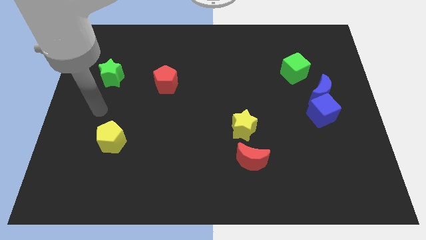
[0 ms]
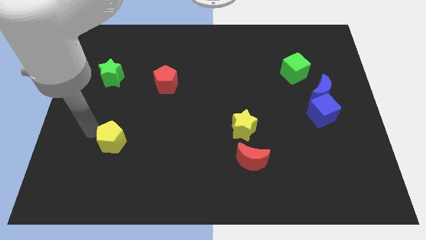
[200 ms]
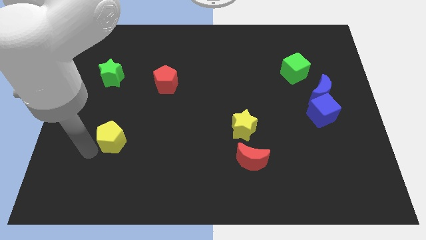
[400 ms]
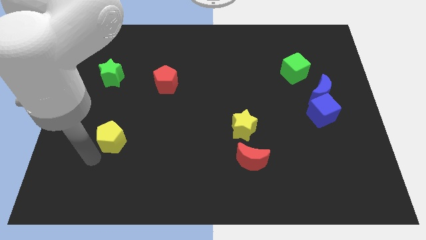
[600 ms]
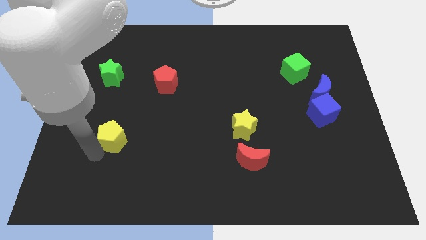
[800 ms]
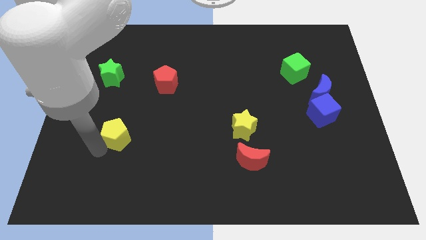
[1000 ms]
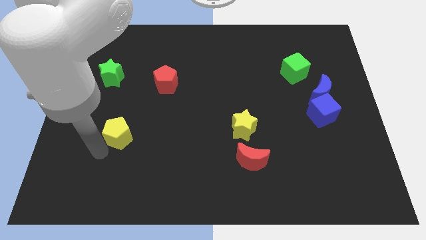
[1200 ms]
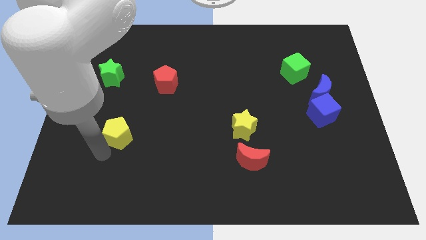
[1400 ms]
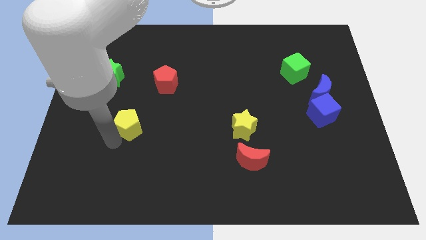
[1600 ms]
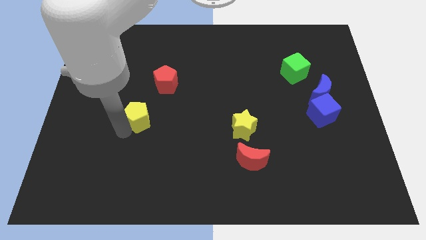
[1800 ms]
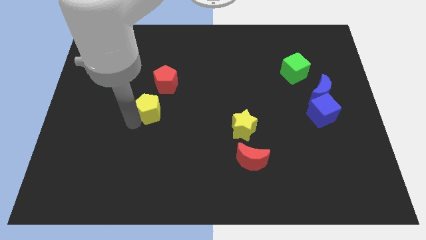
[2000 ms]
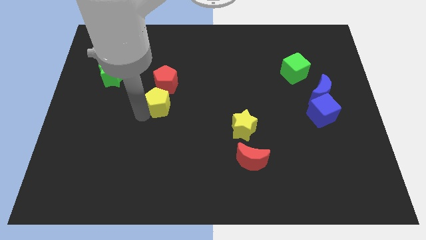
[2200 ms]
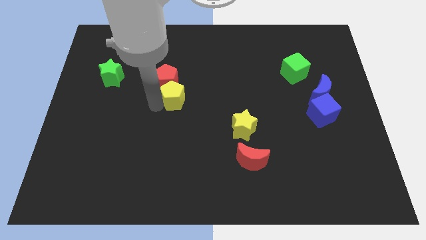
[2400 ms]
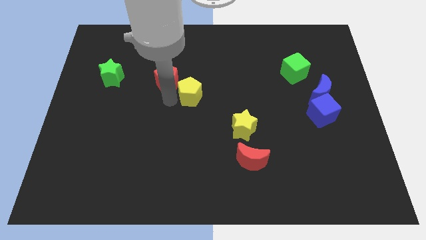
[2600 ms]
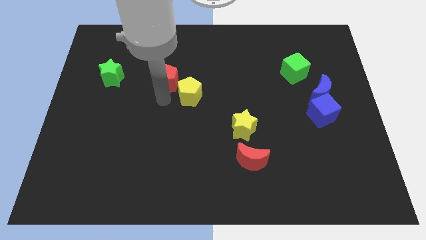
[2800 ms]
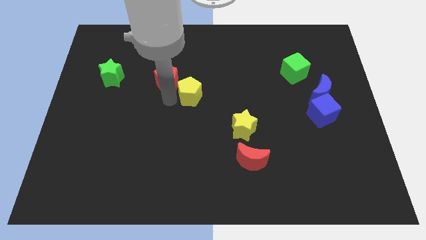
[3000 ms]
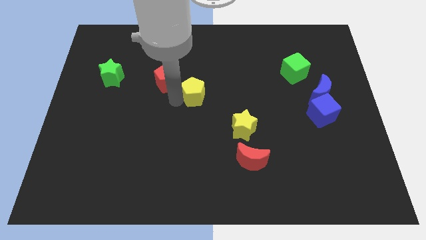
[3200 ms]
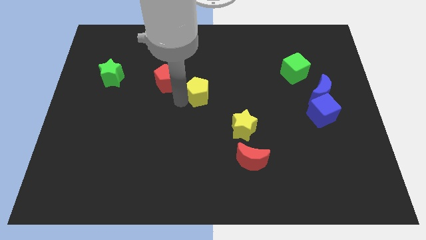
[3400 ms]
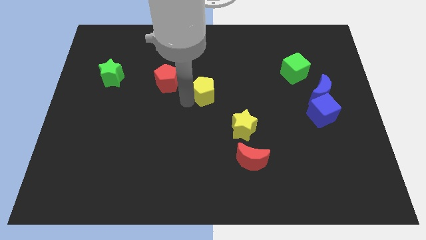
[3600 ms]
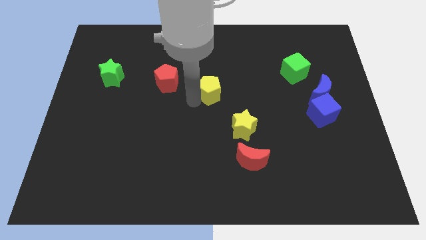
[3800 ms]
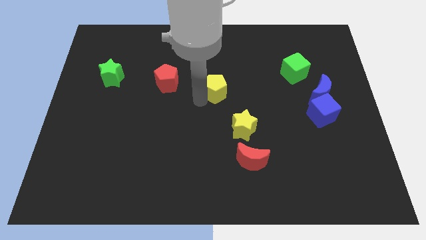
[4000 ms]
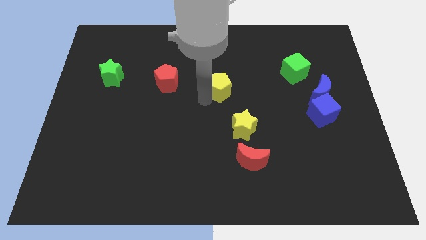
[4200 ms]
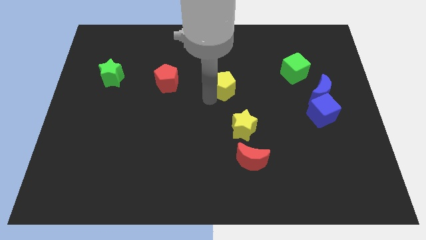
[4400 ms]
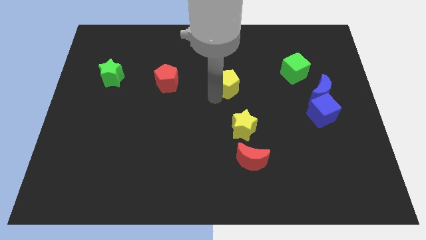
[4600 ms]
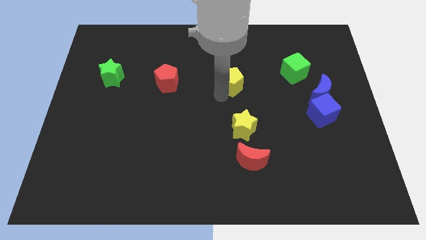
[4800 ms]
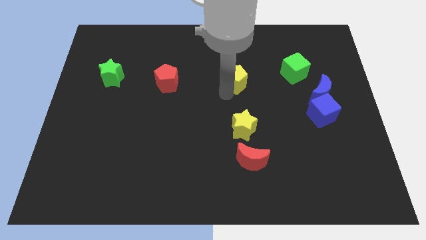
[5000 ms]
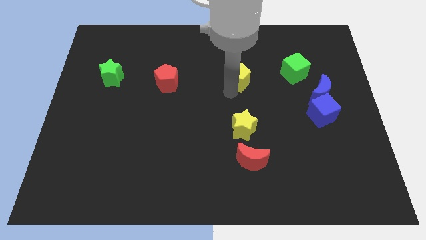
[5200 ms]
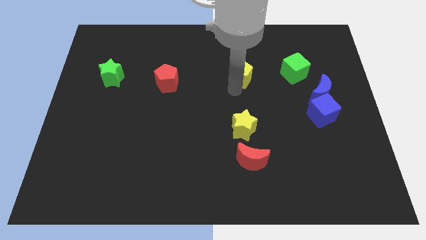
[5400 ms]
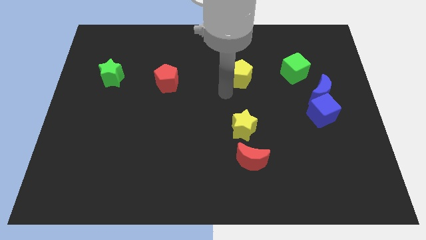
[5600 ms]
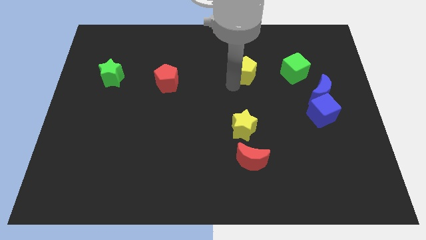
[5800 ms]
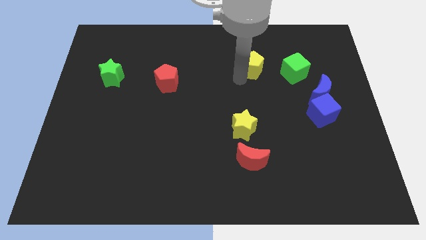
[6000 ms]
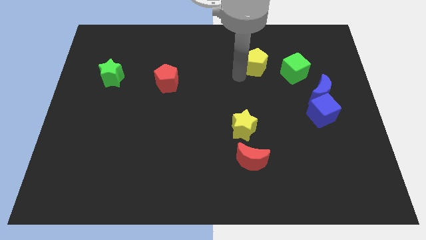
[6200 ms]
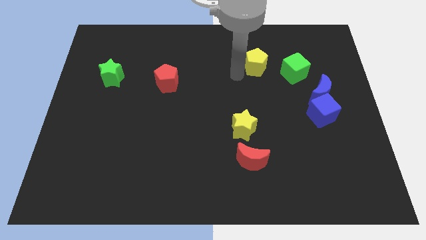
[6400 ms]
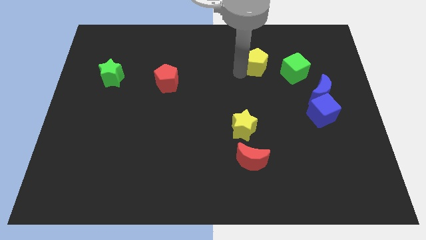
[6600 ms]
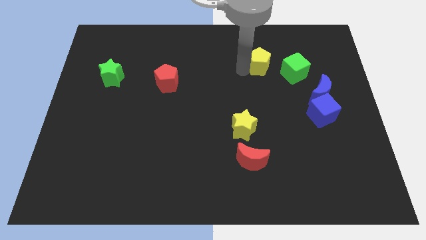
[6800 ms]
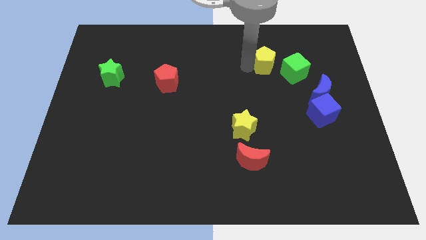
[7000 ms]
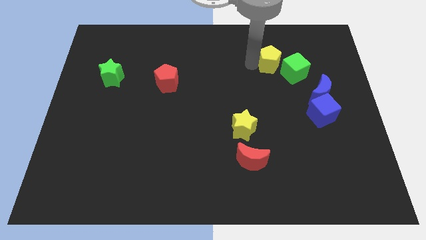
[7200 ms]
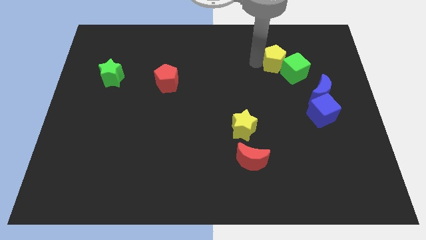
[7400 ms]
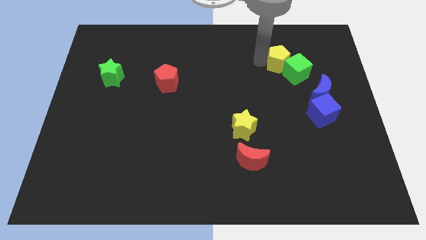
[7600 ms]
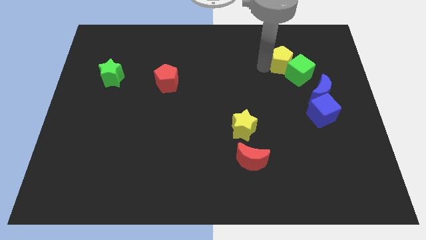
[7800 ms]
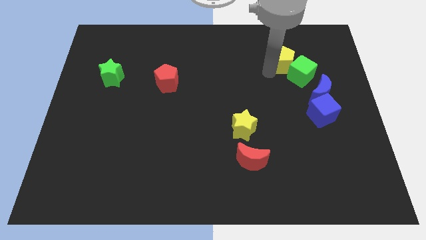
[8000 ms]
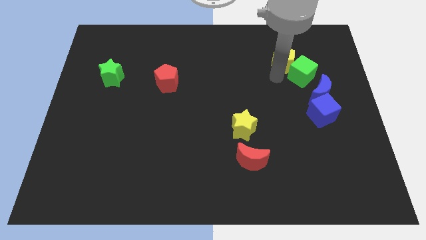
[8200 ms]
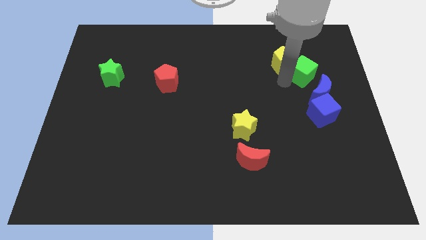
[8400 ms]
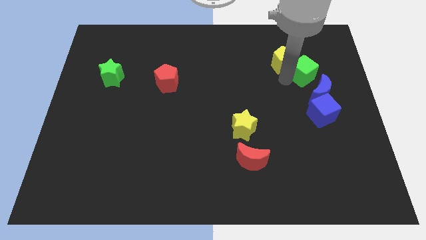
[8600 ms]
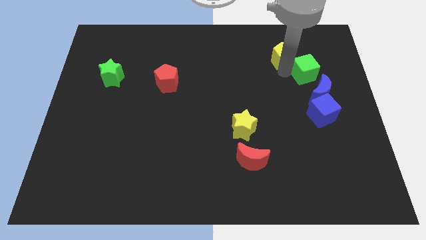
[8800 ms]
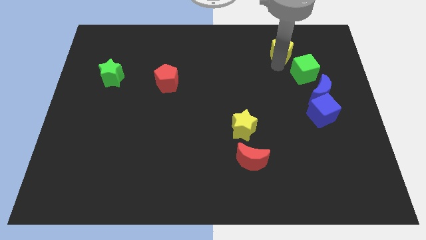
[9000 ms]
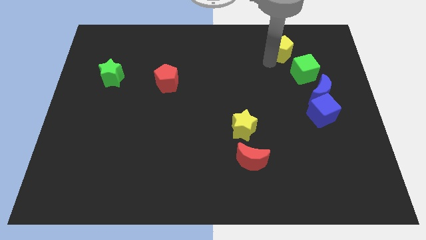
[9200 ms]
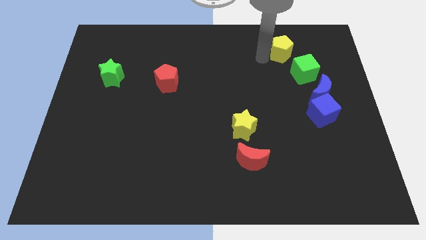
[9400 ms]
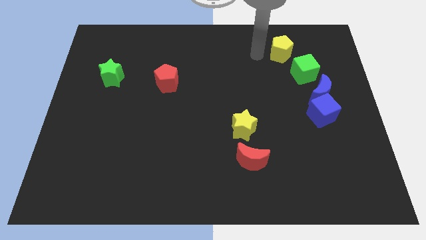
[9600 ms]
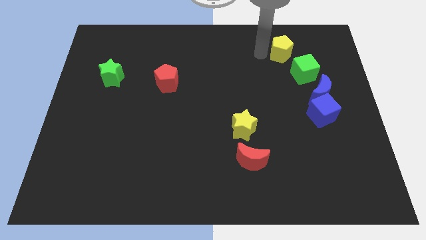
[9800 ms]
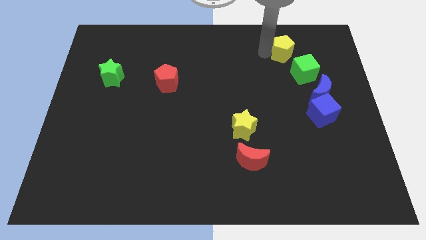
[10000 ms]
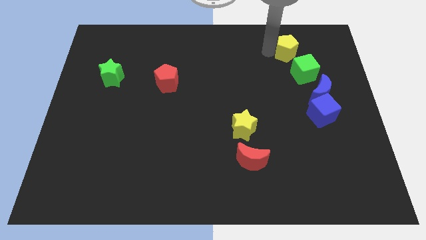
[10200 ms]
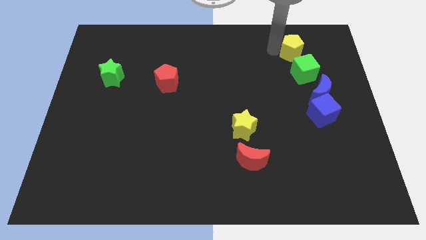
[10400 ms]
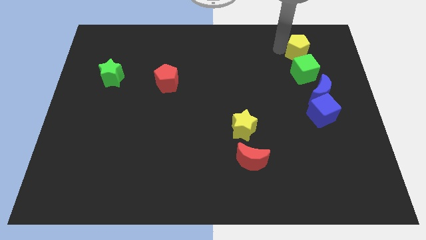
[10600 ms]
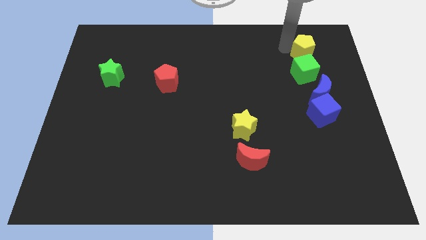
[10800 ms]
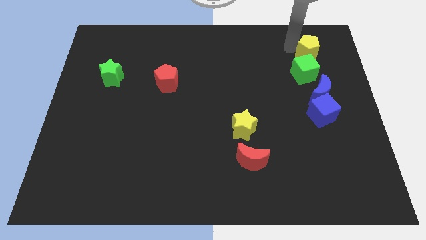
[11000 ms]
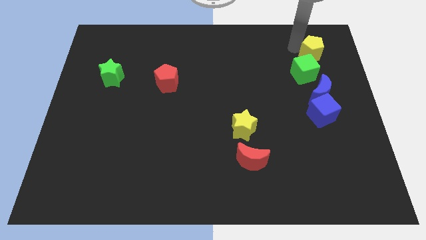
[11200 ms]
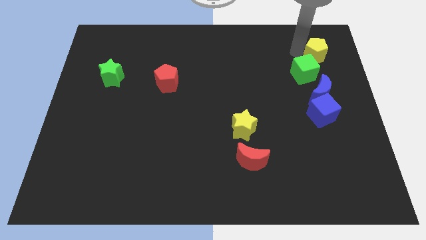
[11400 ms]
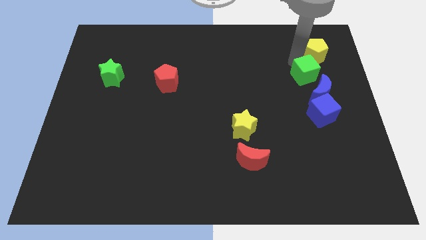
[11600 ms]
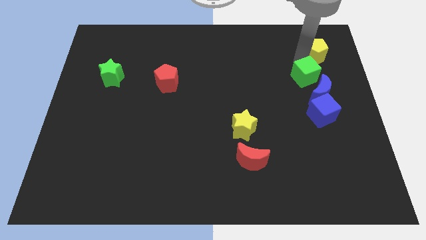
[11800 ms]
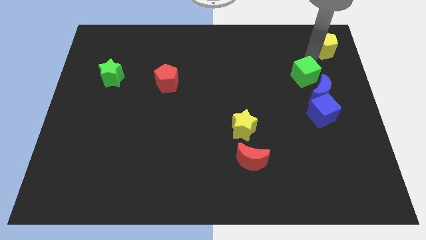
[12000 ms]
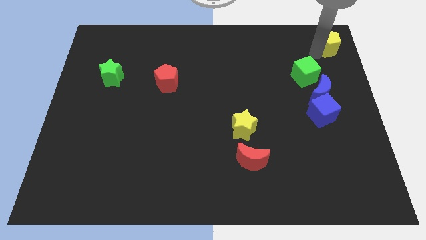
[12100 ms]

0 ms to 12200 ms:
move the yellow pentagon to the upper right corner
